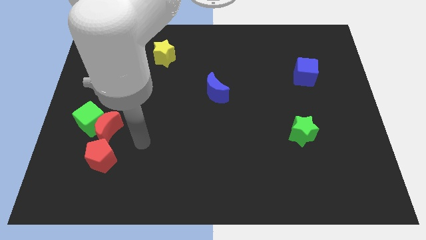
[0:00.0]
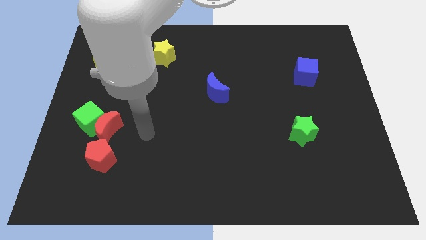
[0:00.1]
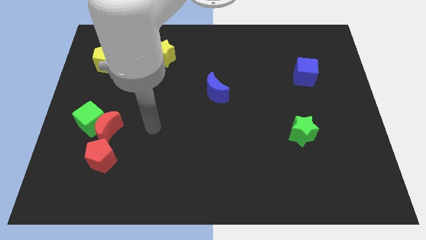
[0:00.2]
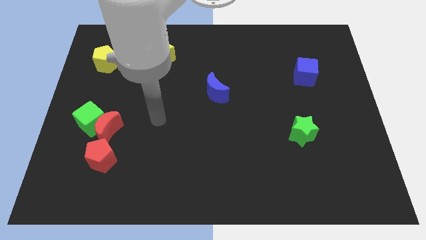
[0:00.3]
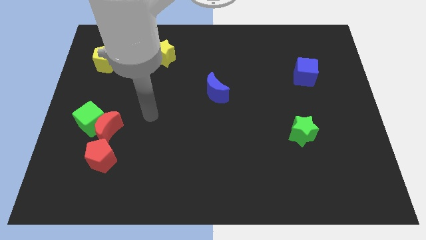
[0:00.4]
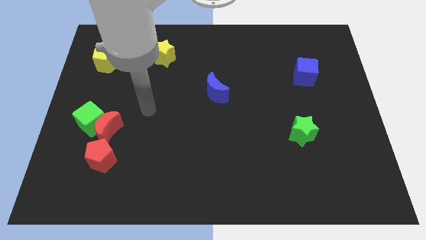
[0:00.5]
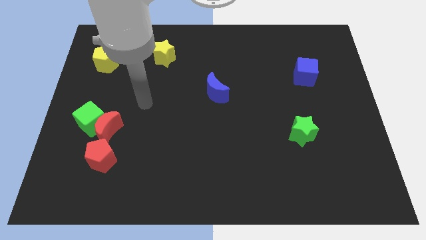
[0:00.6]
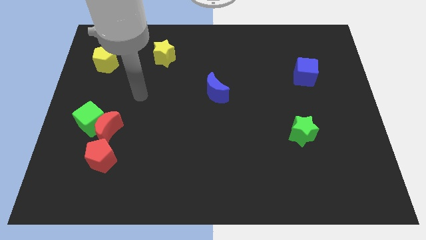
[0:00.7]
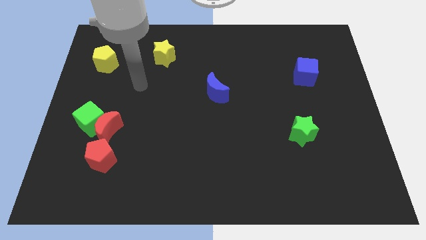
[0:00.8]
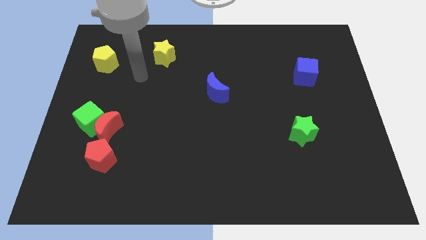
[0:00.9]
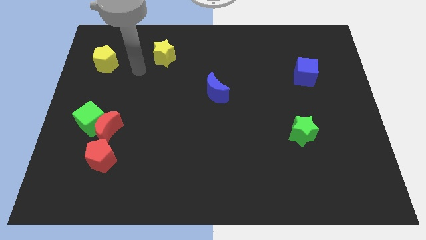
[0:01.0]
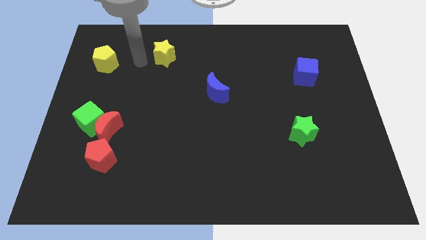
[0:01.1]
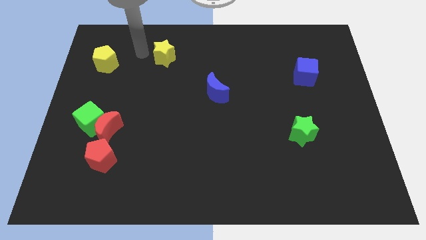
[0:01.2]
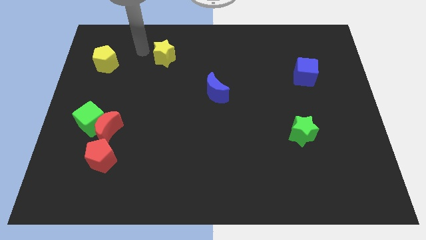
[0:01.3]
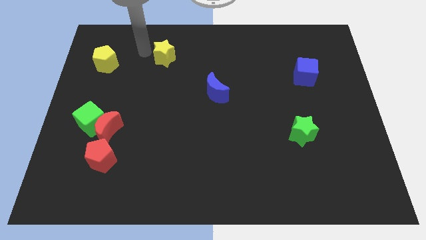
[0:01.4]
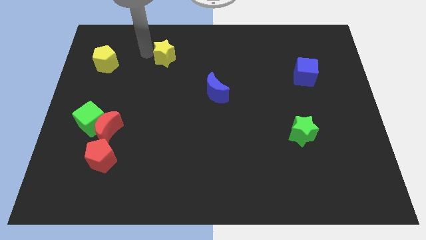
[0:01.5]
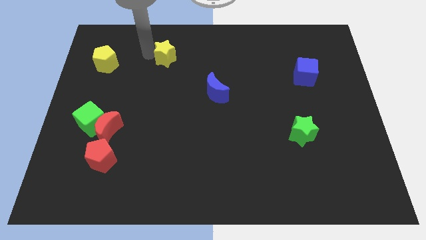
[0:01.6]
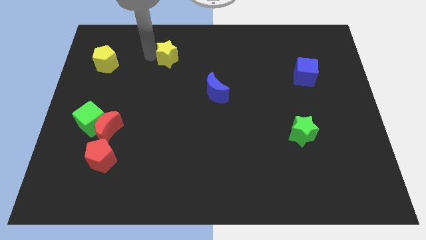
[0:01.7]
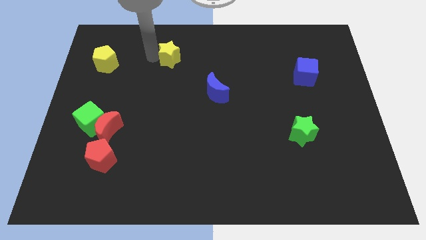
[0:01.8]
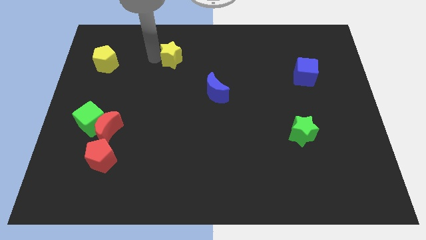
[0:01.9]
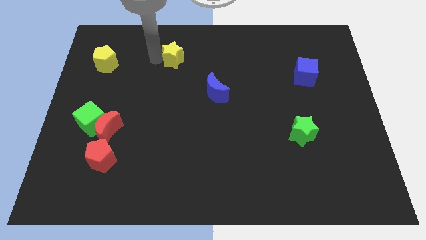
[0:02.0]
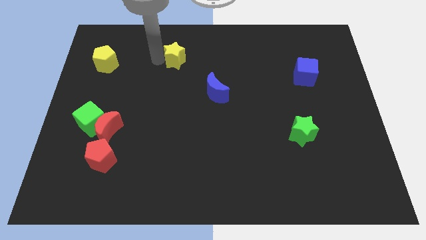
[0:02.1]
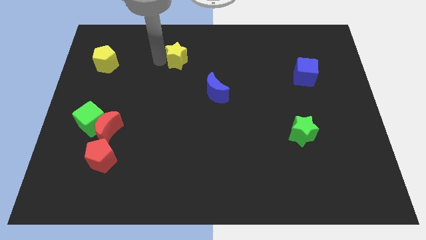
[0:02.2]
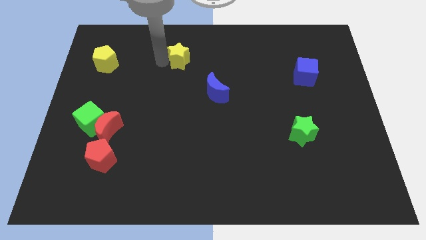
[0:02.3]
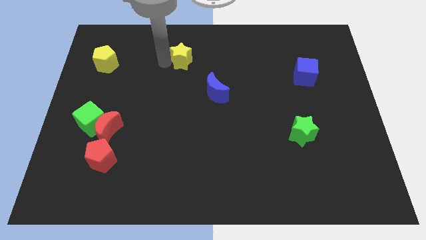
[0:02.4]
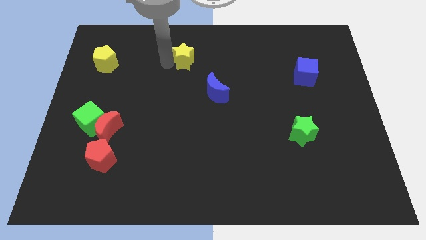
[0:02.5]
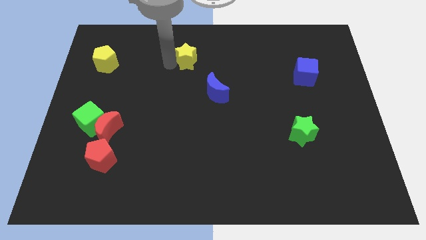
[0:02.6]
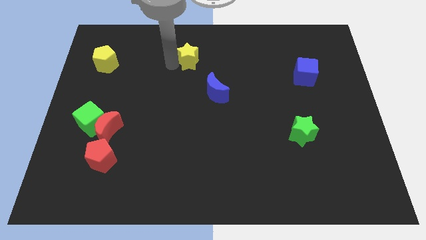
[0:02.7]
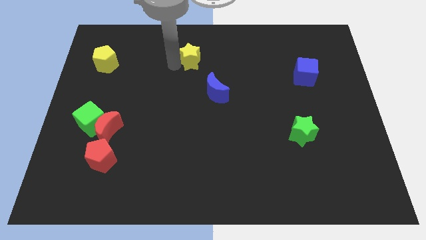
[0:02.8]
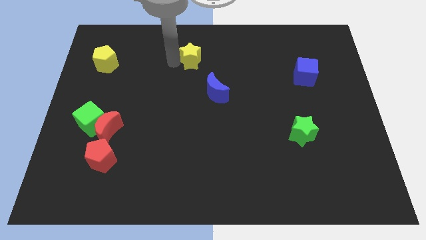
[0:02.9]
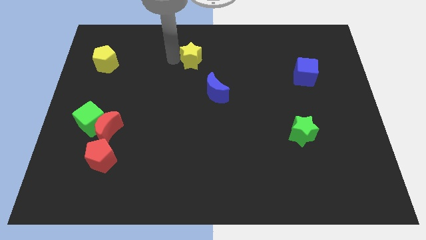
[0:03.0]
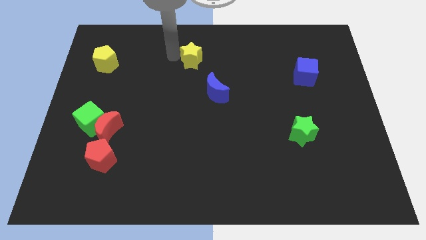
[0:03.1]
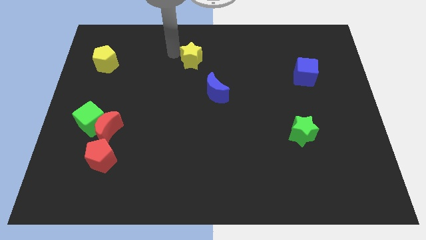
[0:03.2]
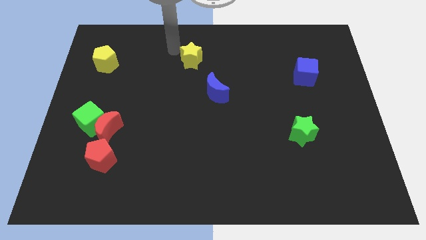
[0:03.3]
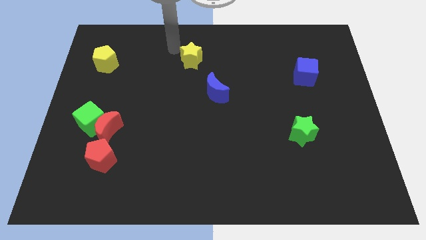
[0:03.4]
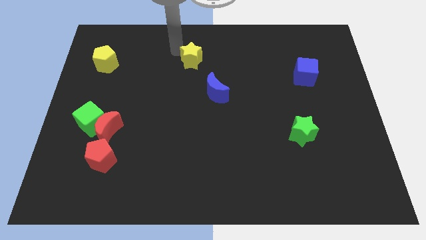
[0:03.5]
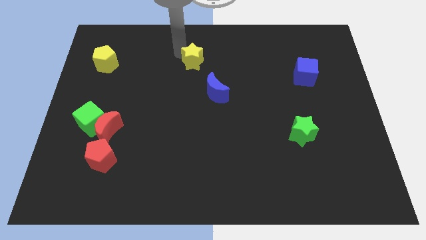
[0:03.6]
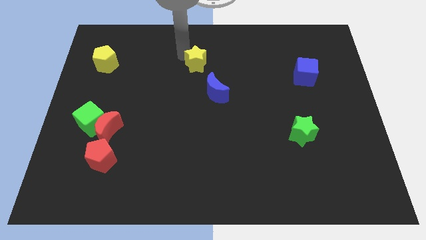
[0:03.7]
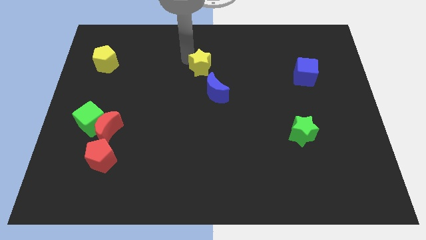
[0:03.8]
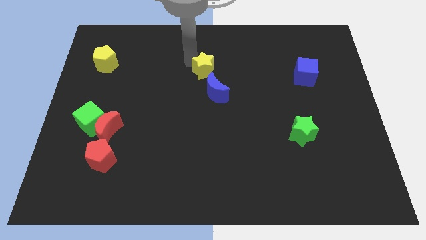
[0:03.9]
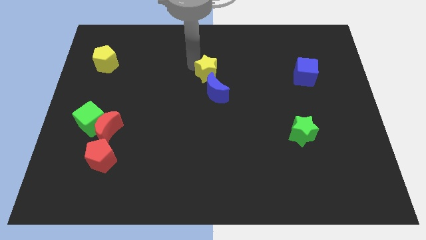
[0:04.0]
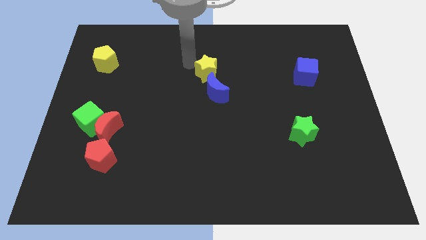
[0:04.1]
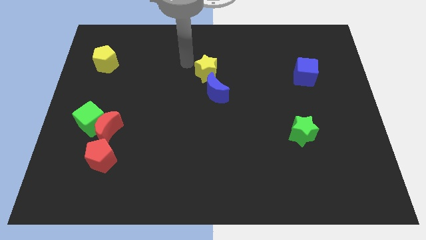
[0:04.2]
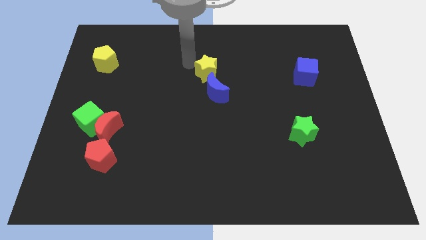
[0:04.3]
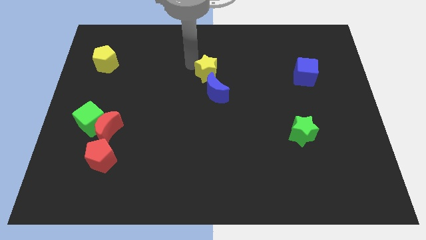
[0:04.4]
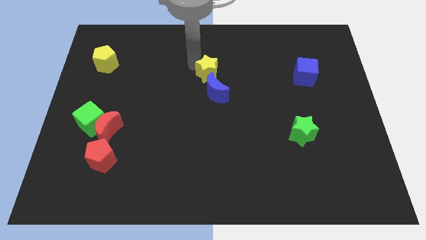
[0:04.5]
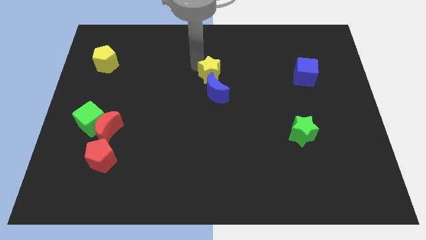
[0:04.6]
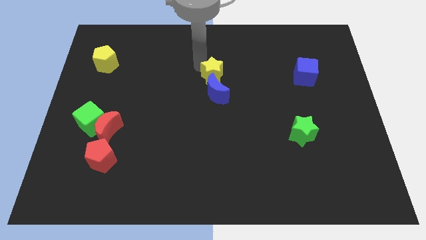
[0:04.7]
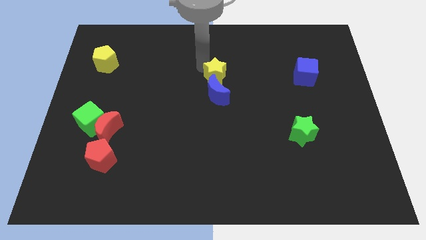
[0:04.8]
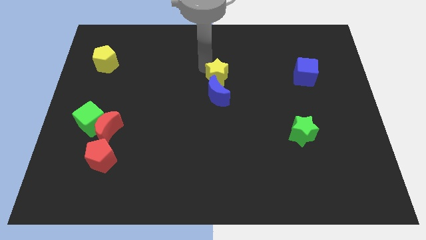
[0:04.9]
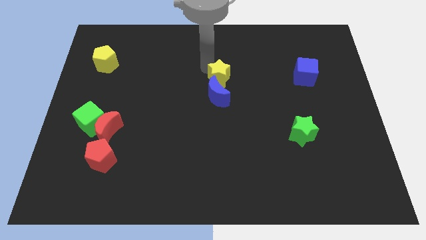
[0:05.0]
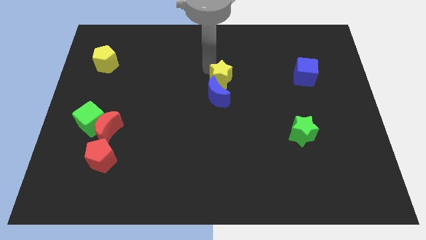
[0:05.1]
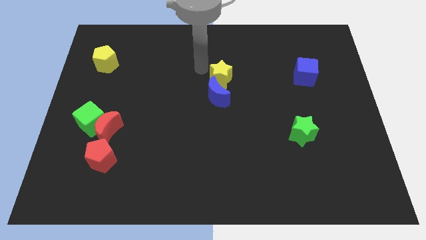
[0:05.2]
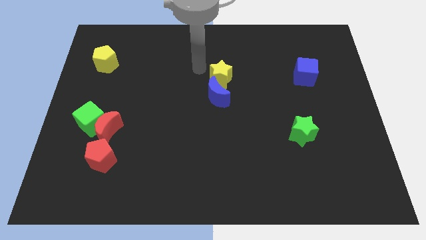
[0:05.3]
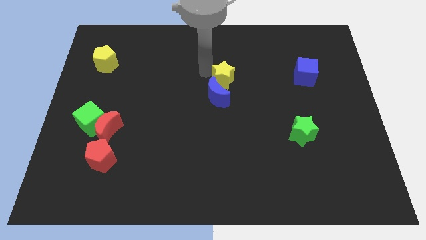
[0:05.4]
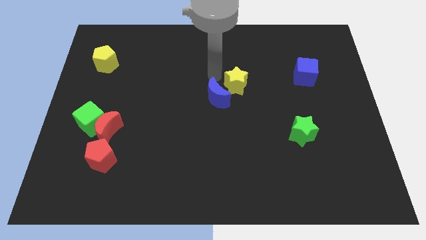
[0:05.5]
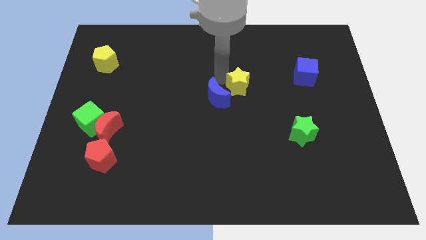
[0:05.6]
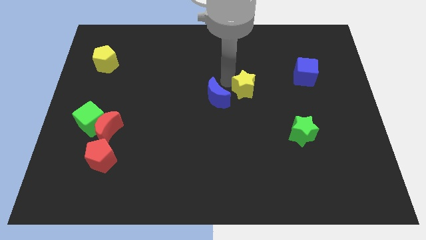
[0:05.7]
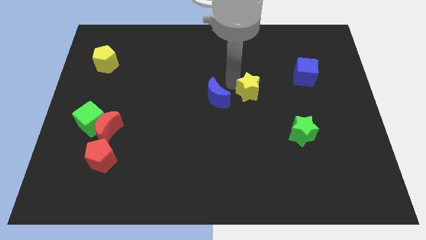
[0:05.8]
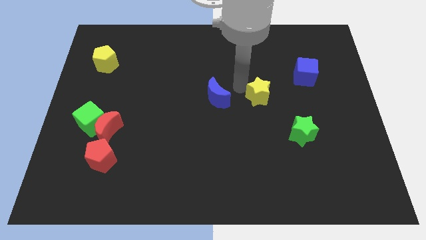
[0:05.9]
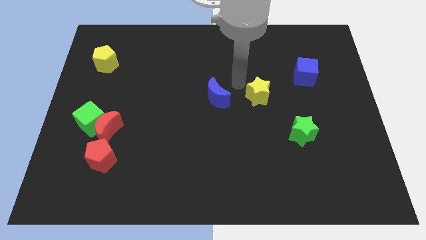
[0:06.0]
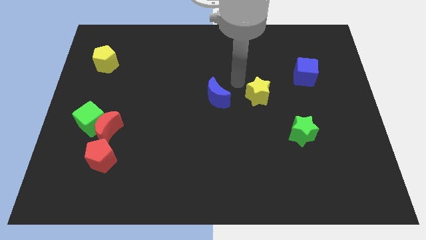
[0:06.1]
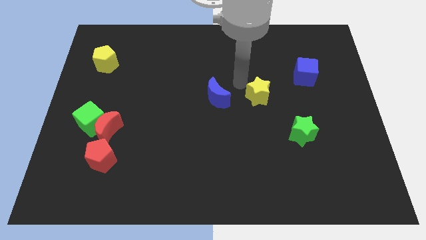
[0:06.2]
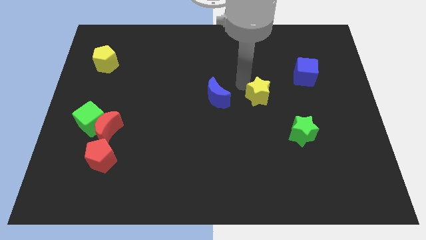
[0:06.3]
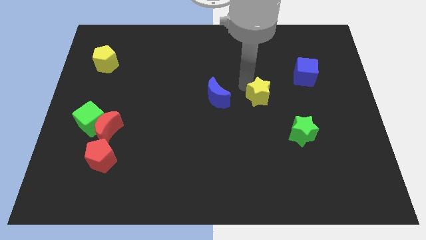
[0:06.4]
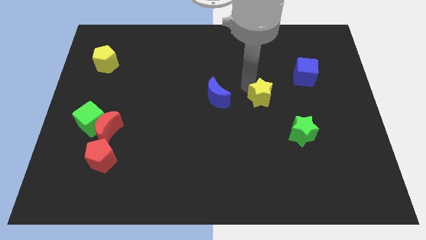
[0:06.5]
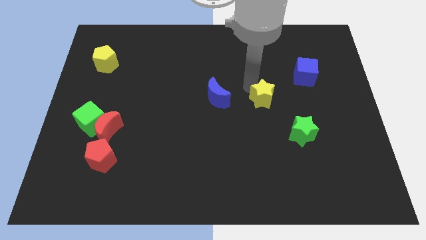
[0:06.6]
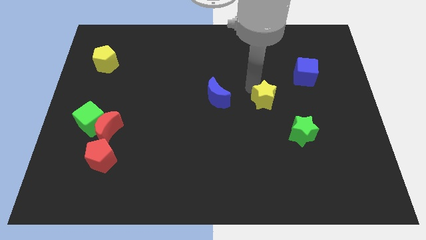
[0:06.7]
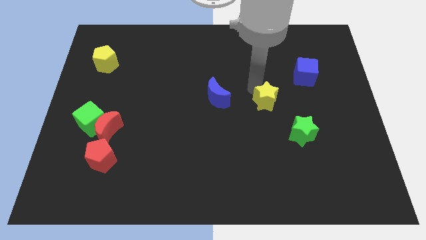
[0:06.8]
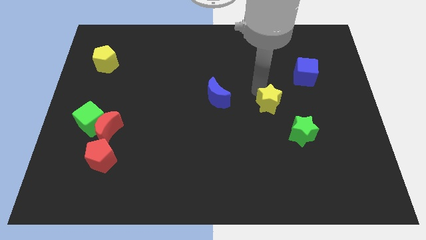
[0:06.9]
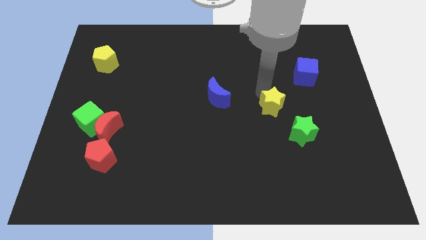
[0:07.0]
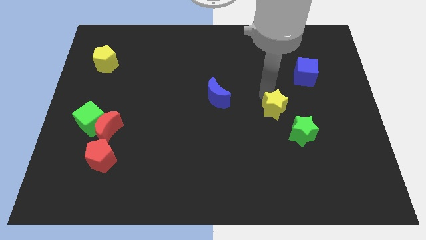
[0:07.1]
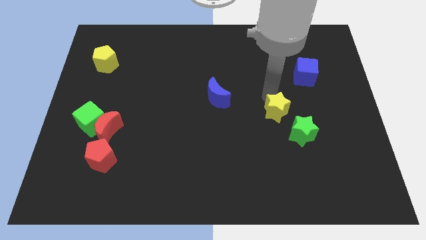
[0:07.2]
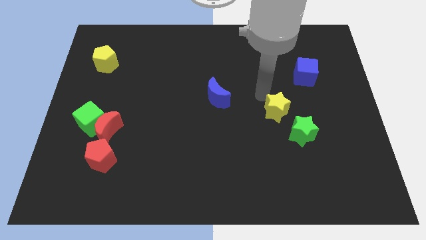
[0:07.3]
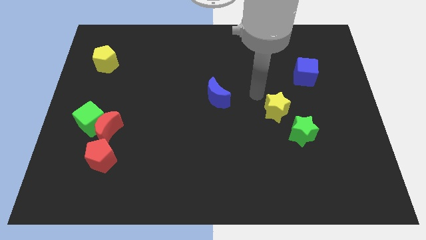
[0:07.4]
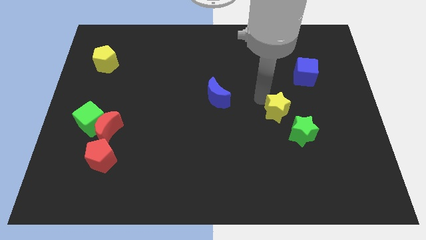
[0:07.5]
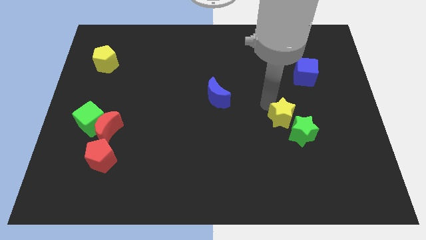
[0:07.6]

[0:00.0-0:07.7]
slide the yellow star close to the green star
